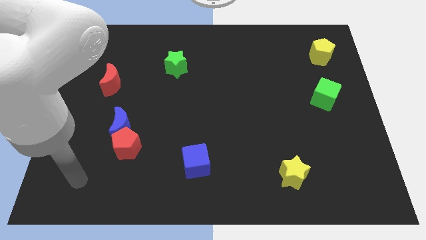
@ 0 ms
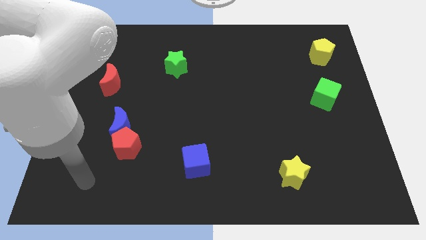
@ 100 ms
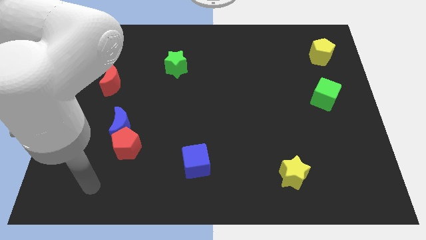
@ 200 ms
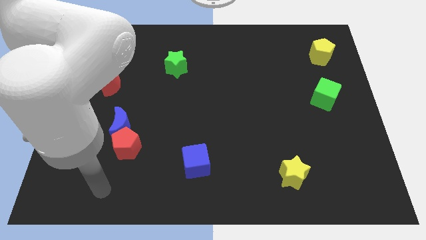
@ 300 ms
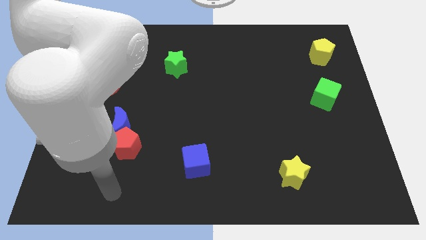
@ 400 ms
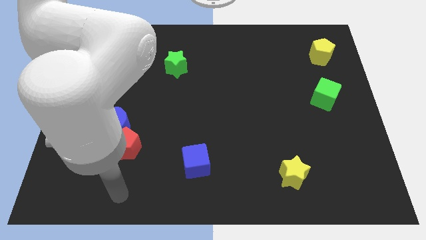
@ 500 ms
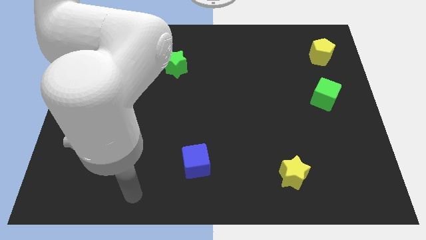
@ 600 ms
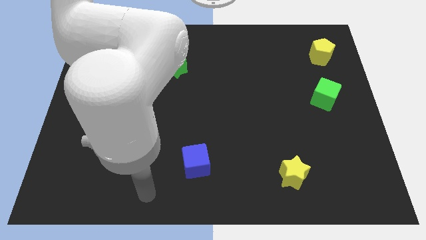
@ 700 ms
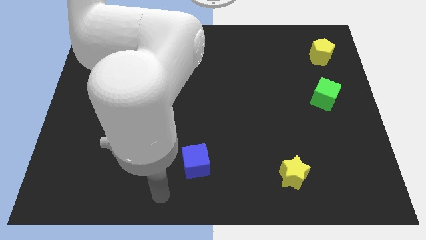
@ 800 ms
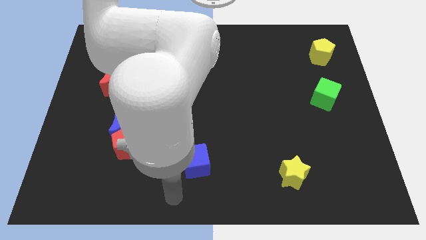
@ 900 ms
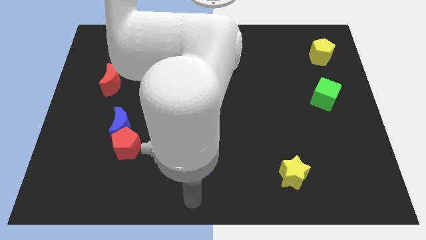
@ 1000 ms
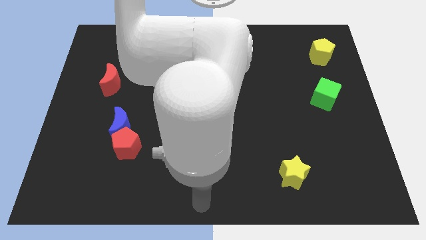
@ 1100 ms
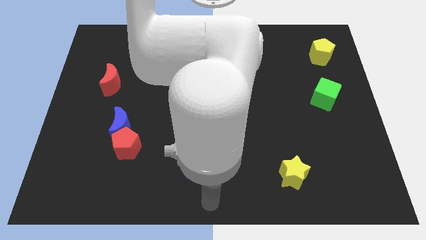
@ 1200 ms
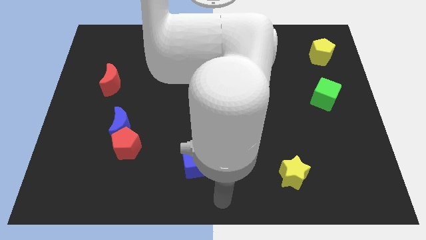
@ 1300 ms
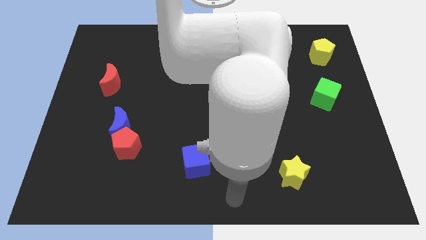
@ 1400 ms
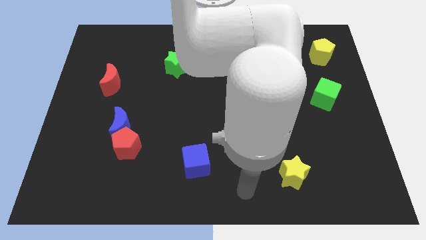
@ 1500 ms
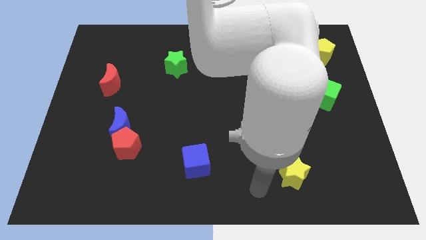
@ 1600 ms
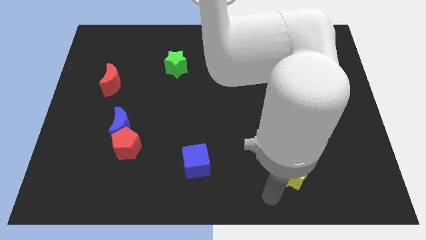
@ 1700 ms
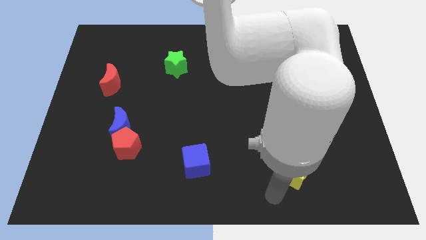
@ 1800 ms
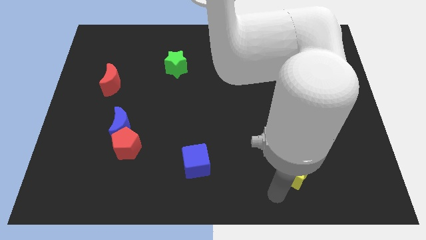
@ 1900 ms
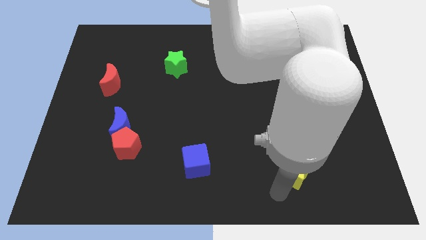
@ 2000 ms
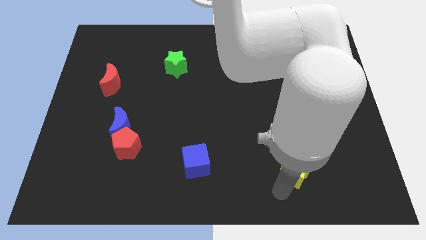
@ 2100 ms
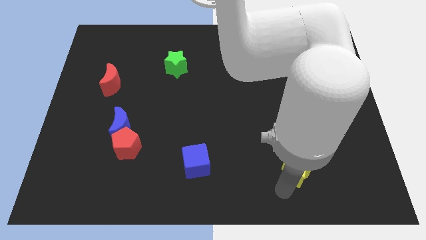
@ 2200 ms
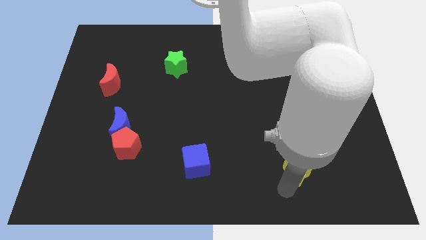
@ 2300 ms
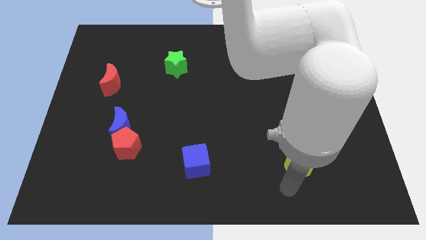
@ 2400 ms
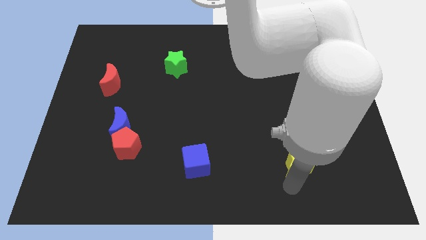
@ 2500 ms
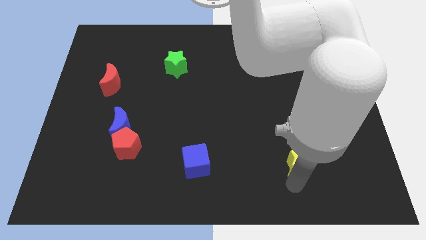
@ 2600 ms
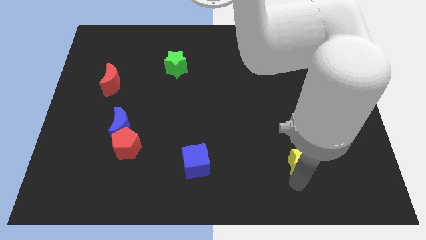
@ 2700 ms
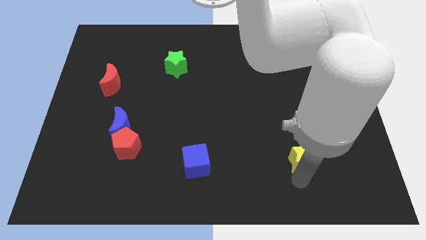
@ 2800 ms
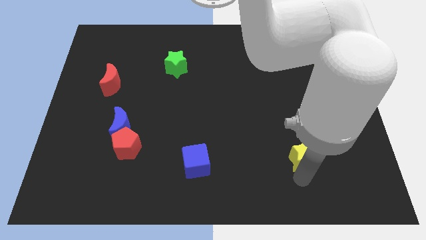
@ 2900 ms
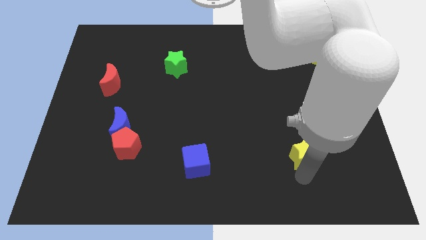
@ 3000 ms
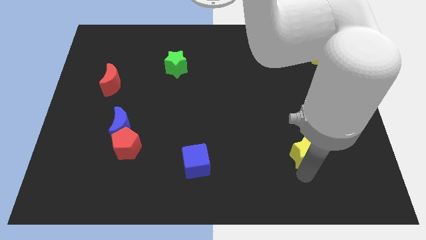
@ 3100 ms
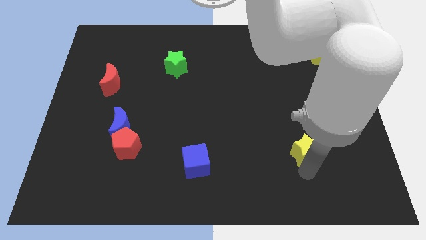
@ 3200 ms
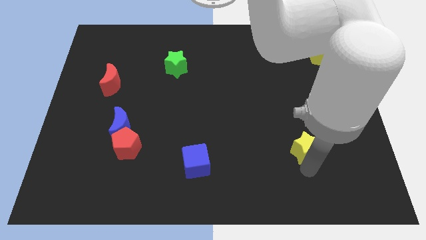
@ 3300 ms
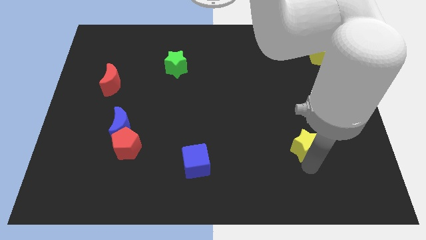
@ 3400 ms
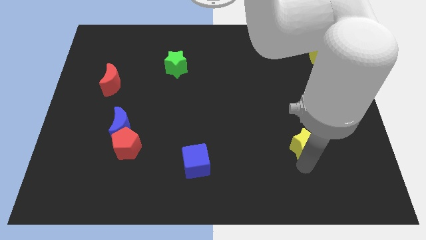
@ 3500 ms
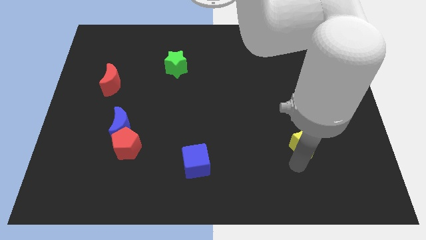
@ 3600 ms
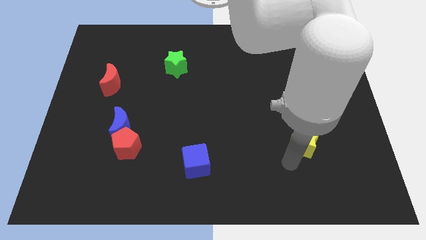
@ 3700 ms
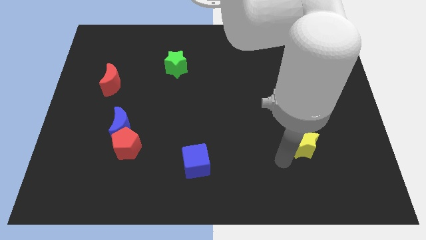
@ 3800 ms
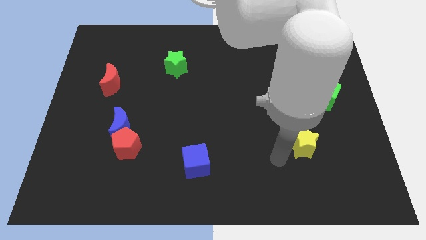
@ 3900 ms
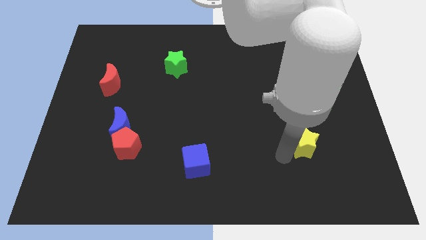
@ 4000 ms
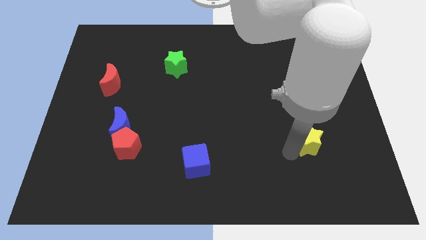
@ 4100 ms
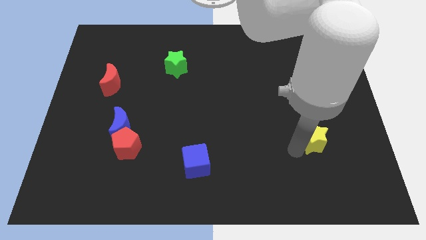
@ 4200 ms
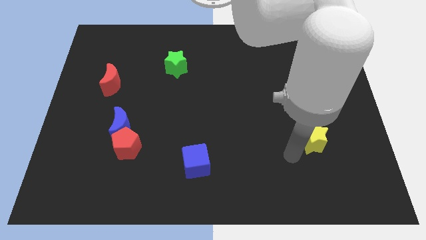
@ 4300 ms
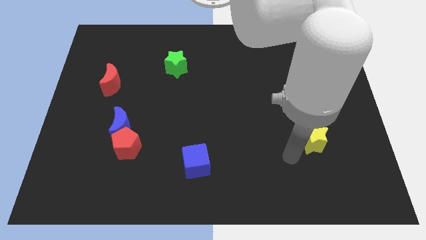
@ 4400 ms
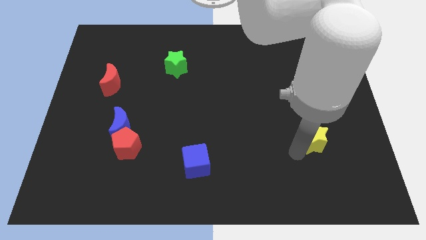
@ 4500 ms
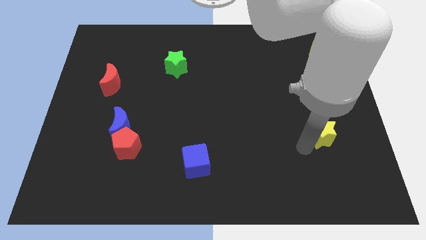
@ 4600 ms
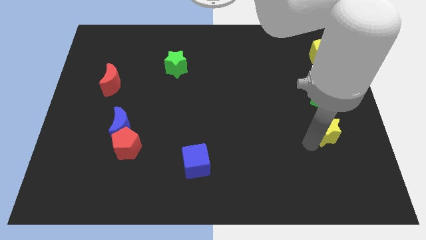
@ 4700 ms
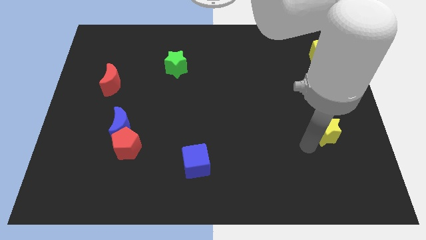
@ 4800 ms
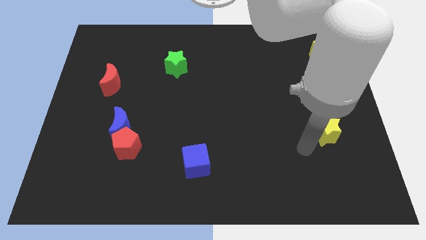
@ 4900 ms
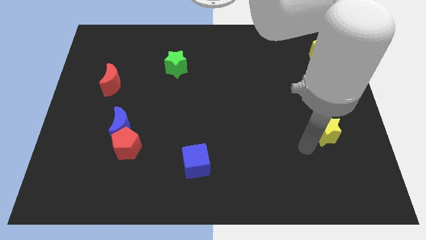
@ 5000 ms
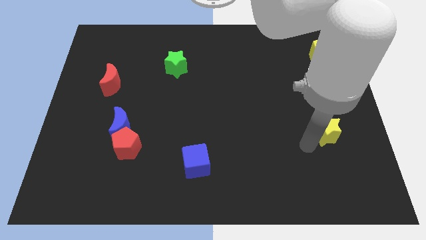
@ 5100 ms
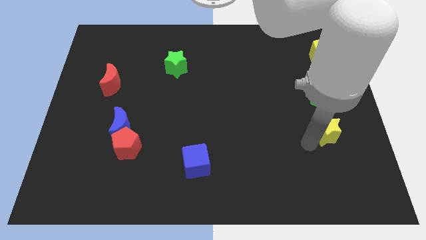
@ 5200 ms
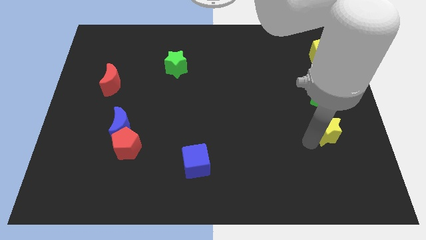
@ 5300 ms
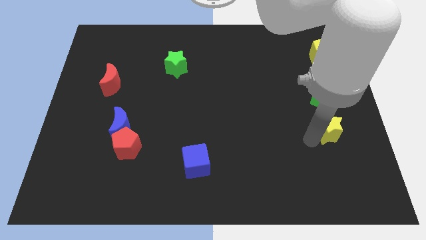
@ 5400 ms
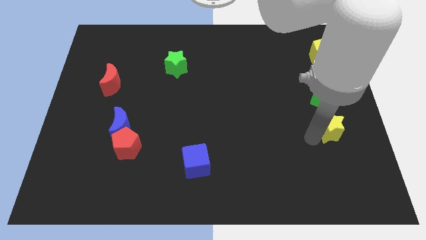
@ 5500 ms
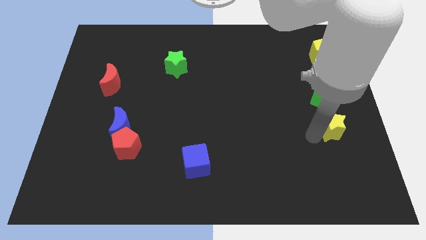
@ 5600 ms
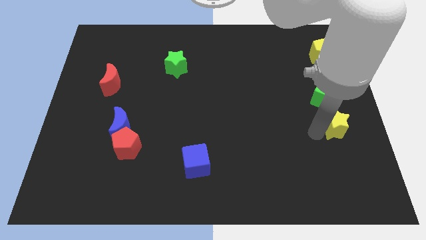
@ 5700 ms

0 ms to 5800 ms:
put the yellow star to the right side of the board

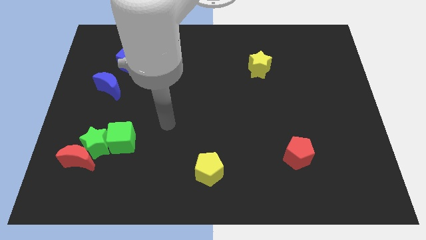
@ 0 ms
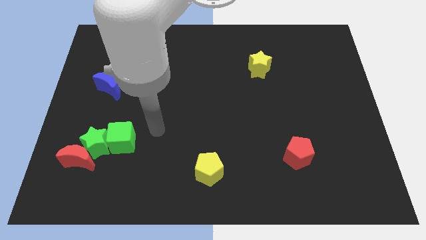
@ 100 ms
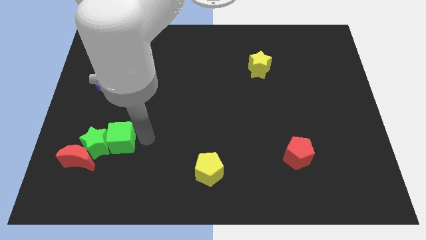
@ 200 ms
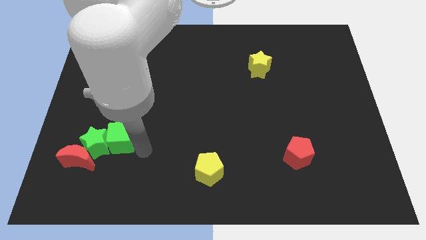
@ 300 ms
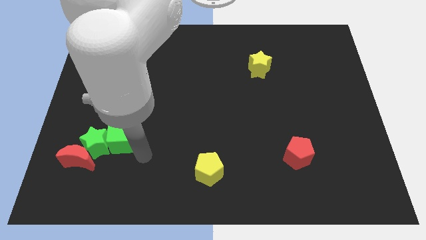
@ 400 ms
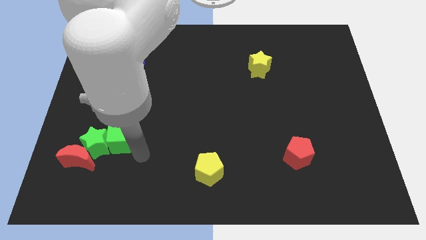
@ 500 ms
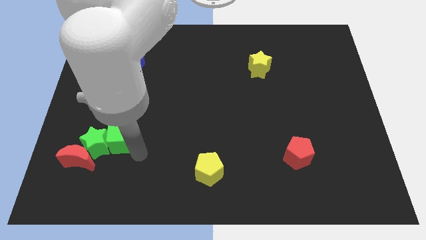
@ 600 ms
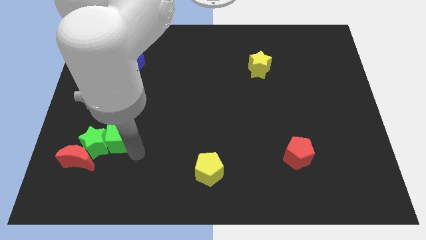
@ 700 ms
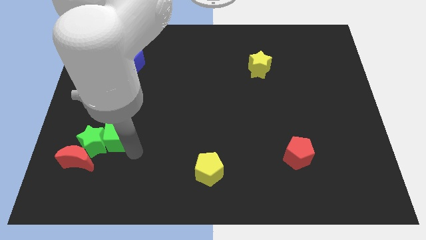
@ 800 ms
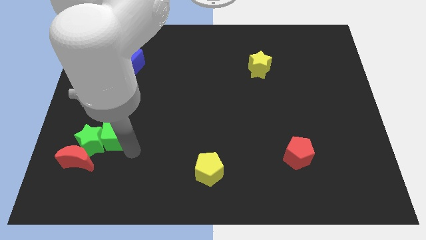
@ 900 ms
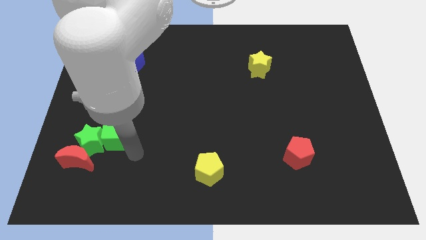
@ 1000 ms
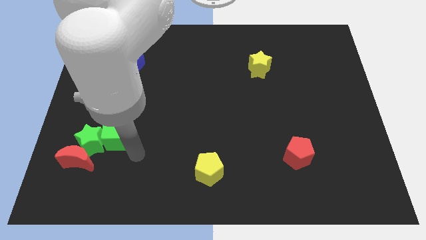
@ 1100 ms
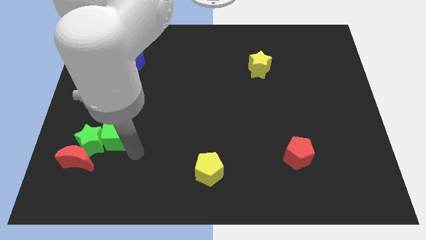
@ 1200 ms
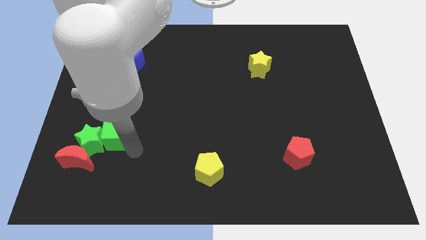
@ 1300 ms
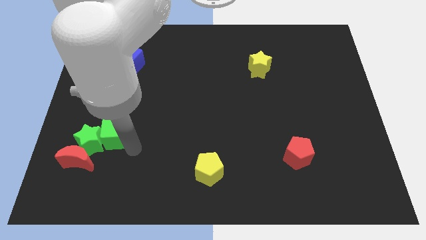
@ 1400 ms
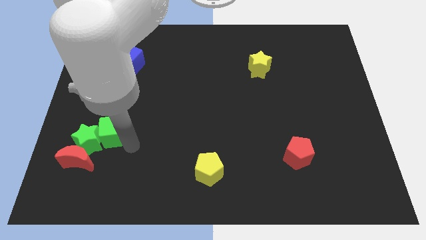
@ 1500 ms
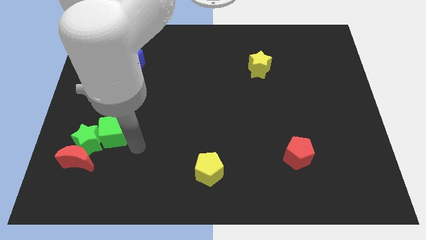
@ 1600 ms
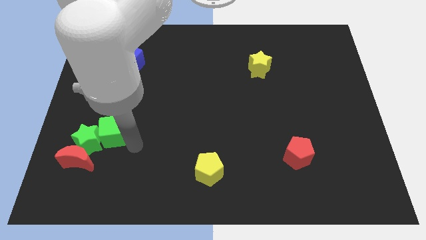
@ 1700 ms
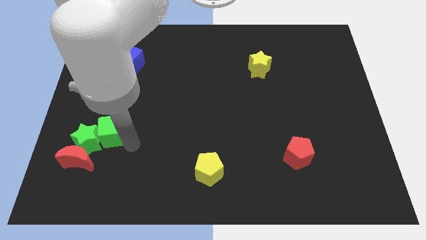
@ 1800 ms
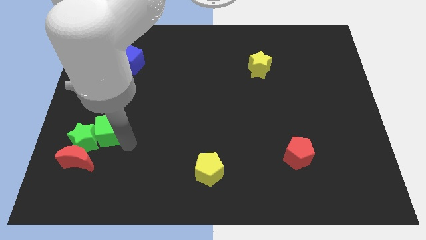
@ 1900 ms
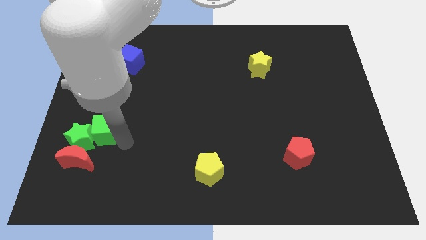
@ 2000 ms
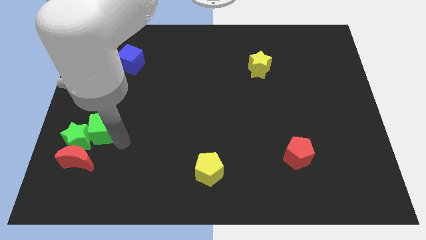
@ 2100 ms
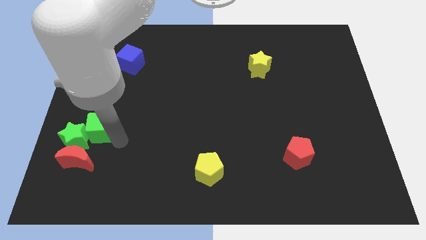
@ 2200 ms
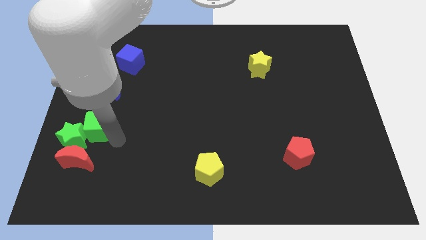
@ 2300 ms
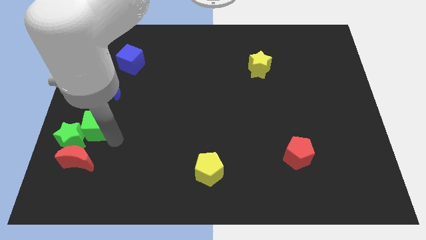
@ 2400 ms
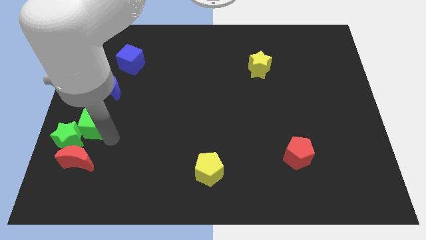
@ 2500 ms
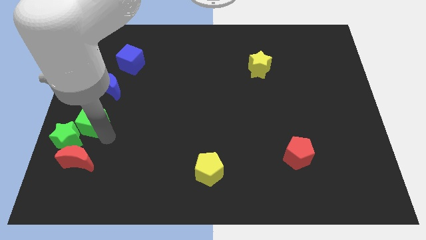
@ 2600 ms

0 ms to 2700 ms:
put the green cube to the center left
